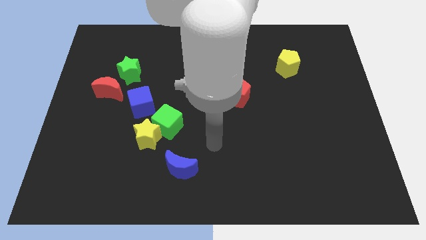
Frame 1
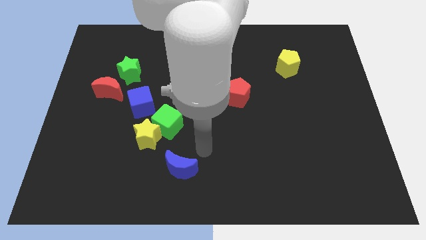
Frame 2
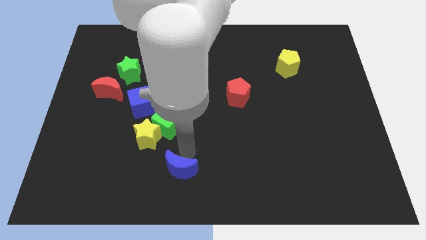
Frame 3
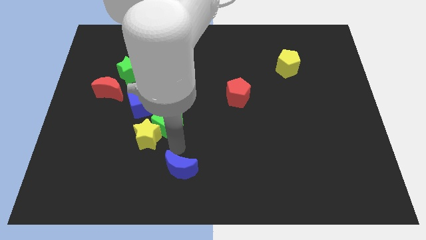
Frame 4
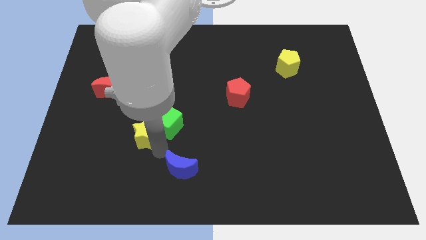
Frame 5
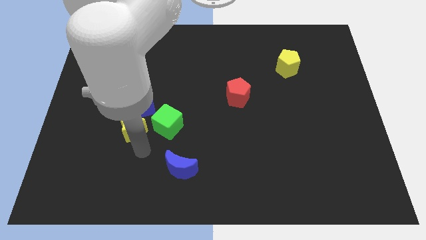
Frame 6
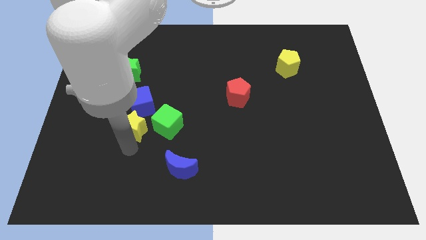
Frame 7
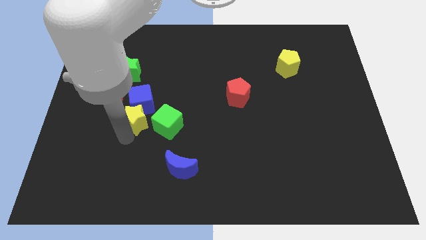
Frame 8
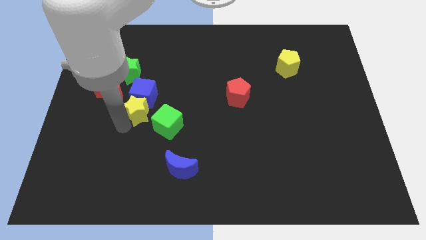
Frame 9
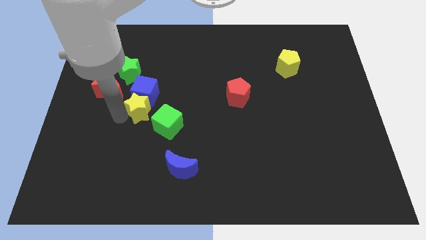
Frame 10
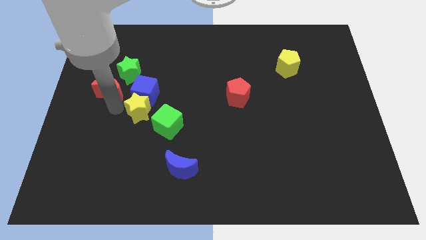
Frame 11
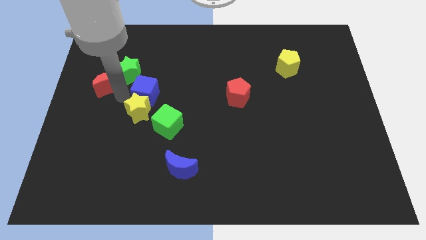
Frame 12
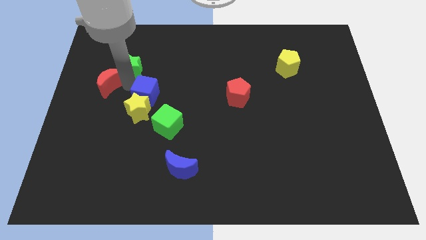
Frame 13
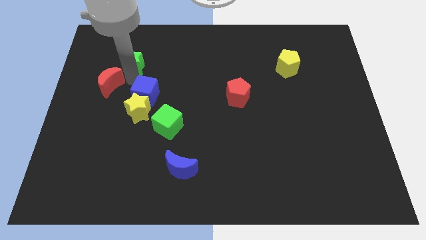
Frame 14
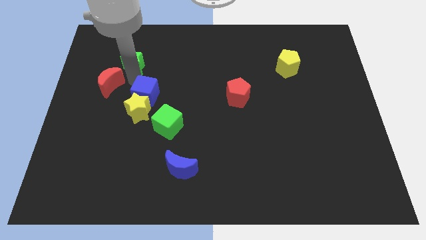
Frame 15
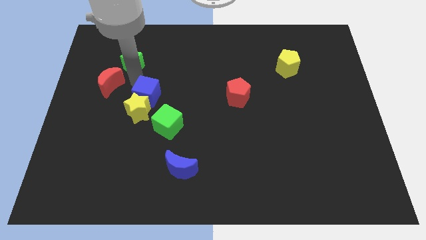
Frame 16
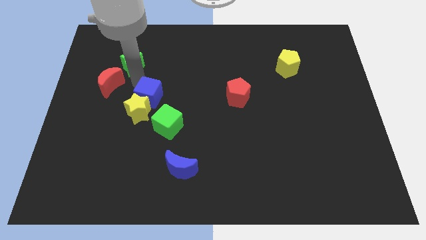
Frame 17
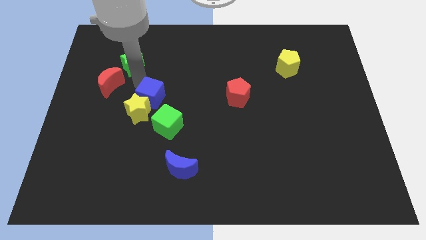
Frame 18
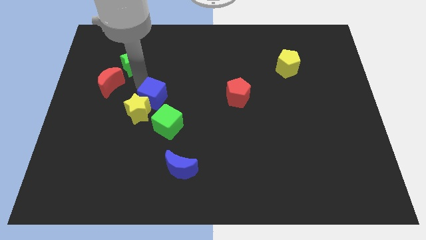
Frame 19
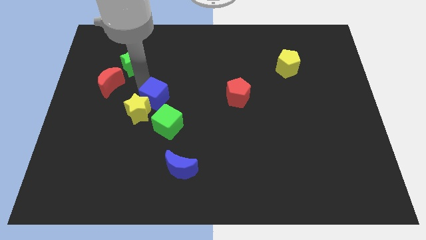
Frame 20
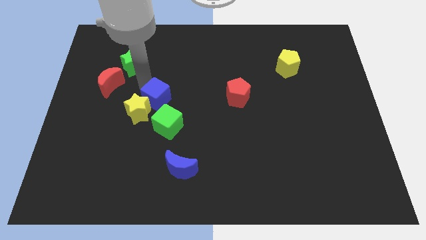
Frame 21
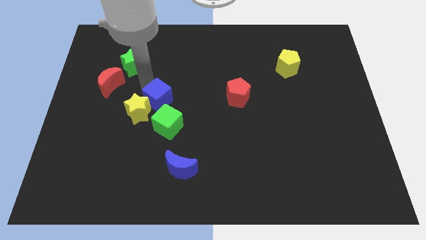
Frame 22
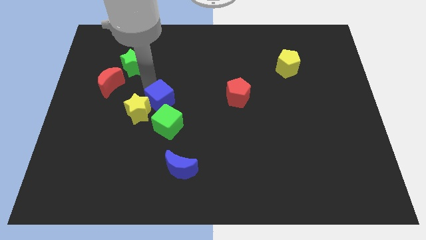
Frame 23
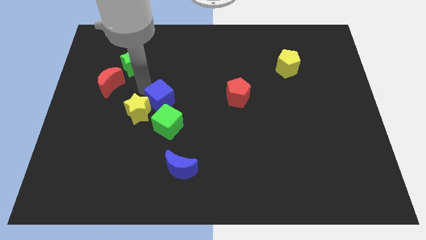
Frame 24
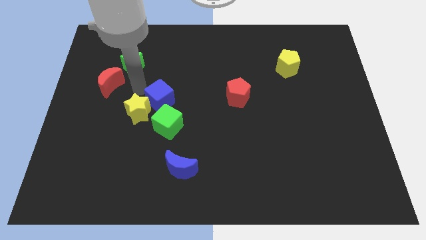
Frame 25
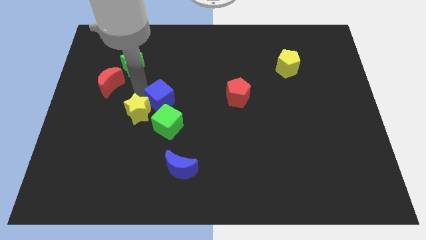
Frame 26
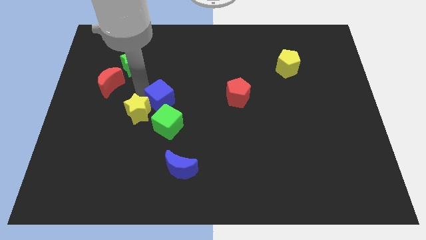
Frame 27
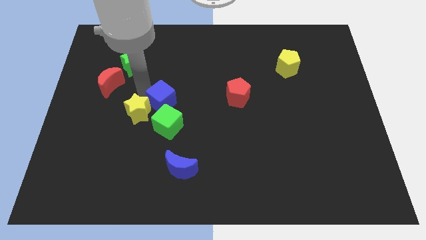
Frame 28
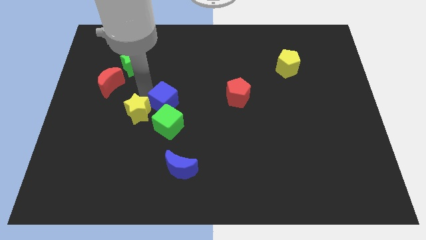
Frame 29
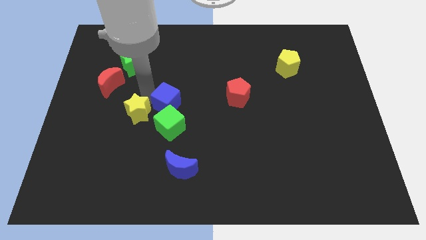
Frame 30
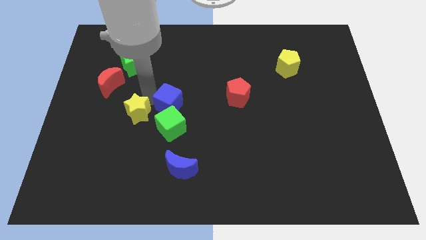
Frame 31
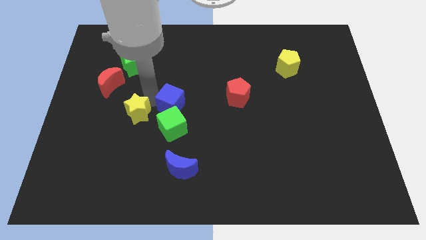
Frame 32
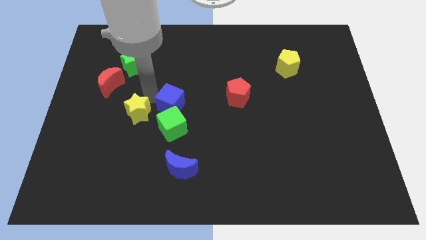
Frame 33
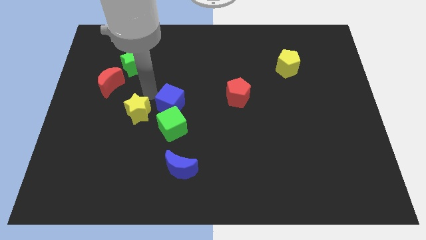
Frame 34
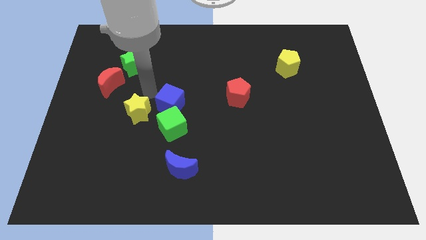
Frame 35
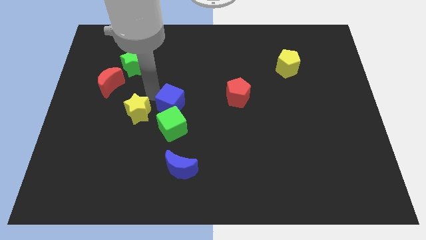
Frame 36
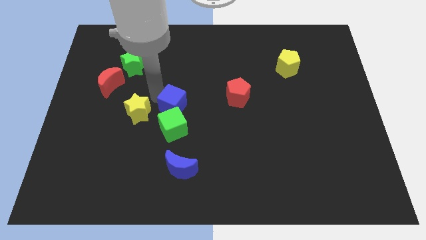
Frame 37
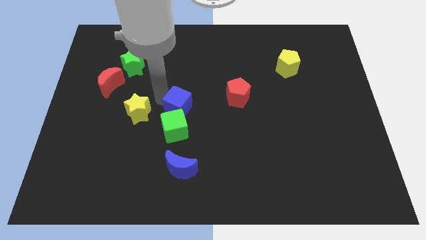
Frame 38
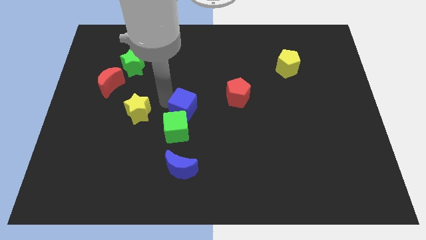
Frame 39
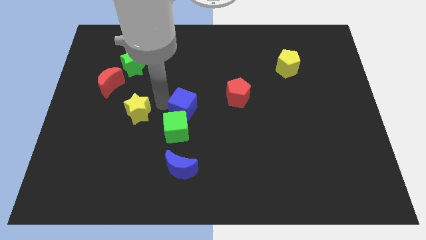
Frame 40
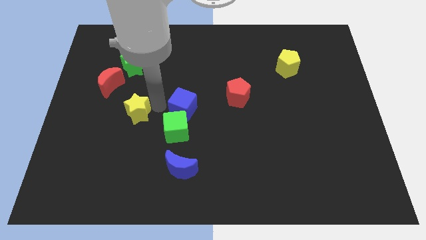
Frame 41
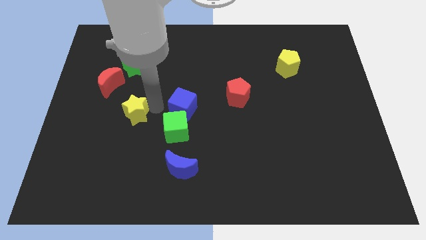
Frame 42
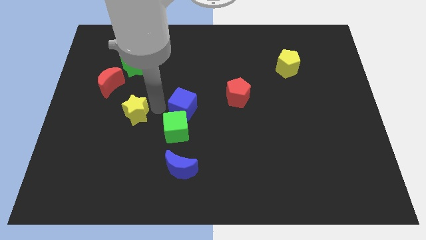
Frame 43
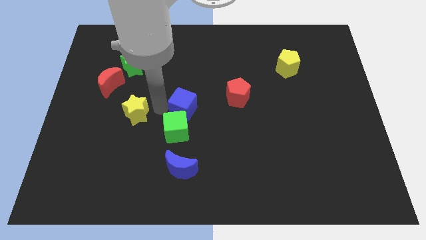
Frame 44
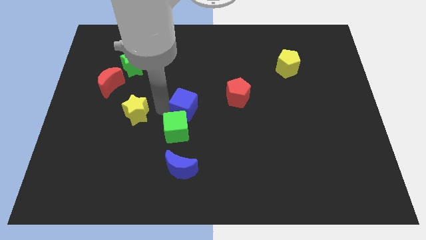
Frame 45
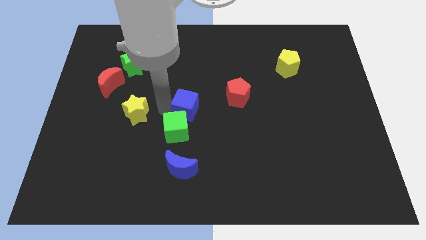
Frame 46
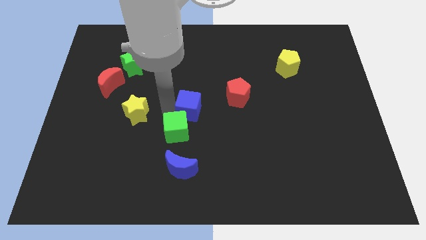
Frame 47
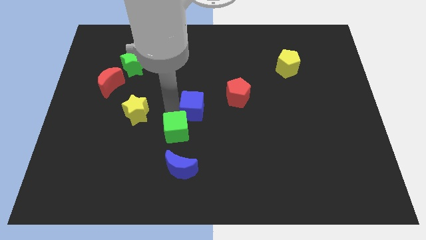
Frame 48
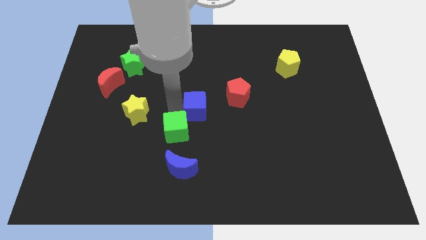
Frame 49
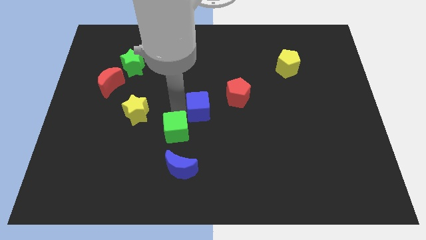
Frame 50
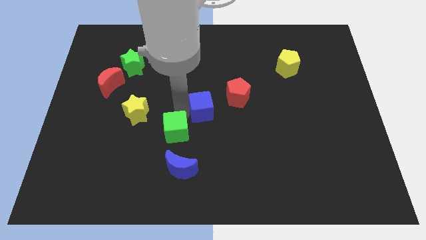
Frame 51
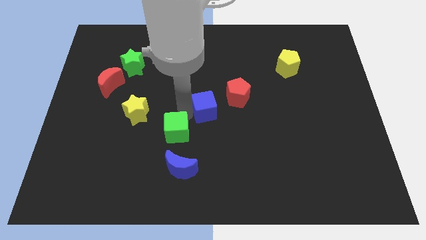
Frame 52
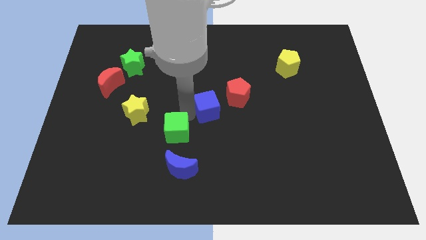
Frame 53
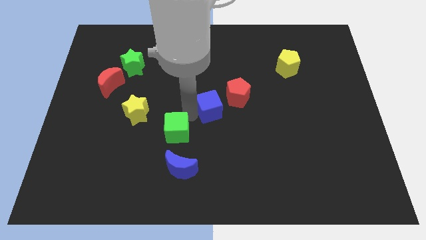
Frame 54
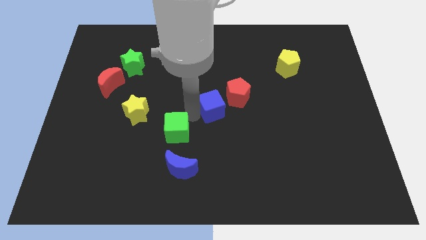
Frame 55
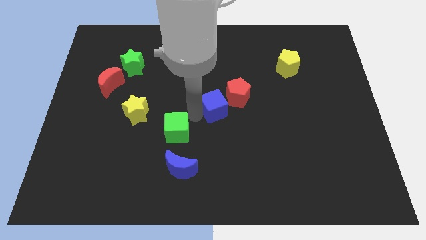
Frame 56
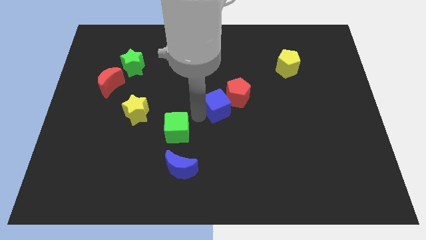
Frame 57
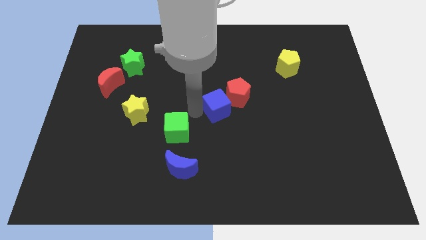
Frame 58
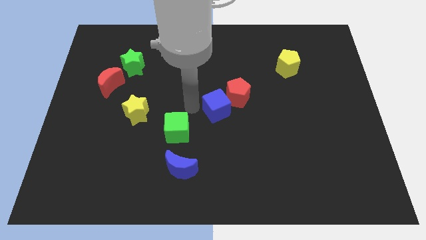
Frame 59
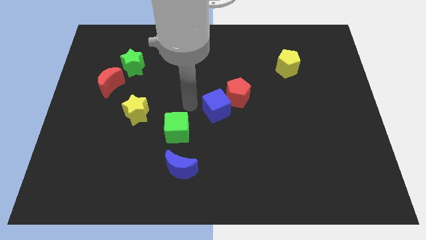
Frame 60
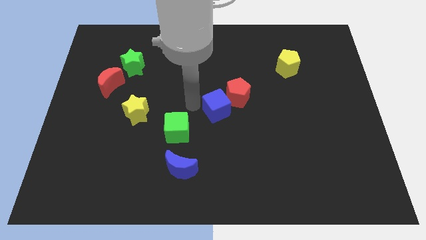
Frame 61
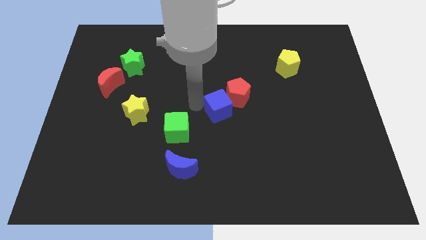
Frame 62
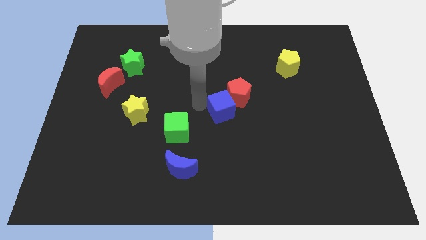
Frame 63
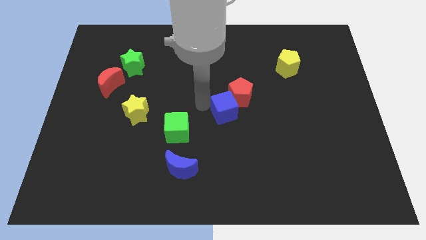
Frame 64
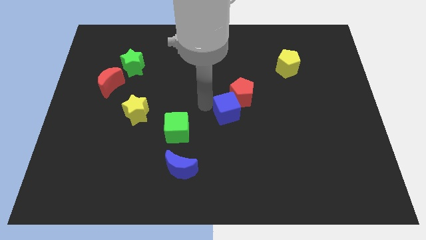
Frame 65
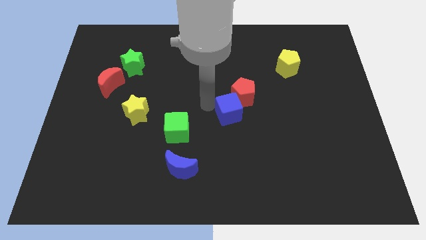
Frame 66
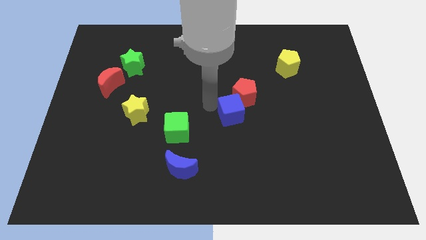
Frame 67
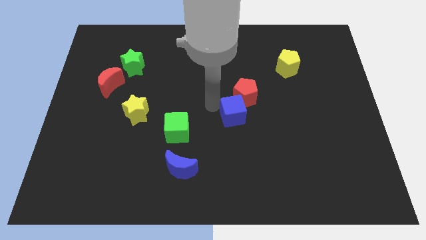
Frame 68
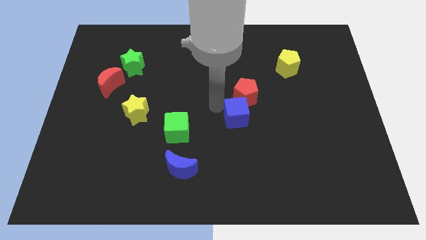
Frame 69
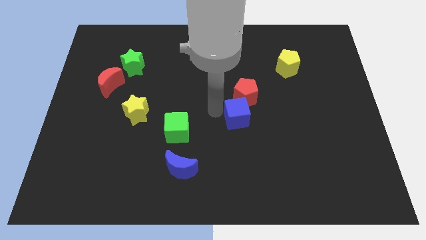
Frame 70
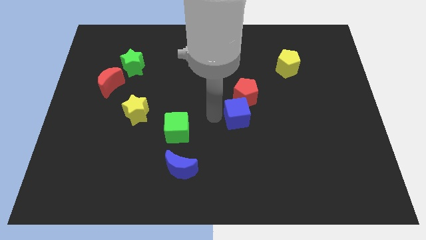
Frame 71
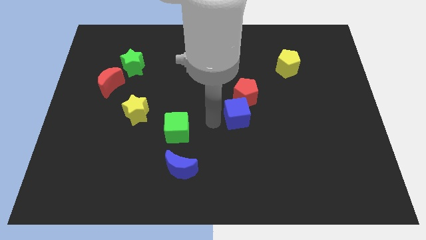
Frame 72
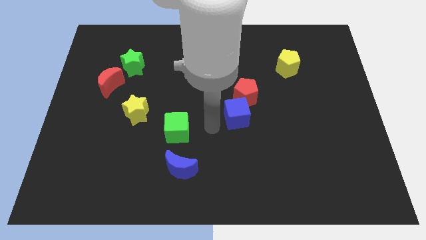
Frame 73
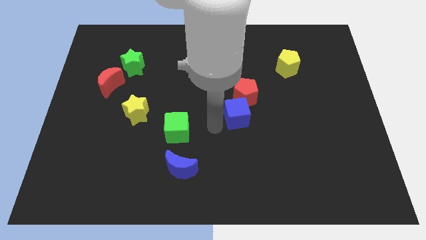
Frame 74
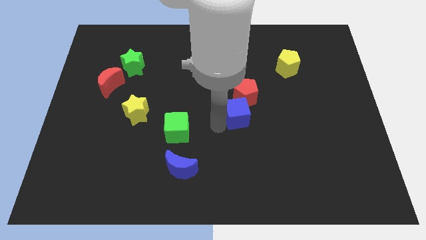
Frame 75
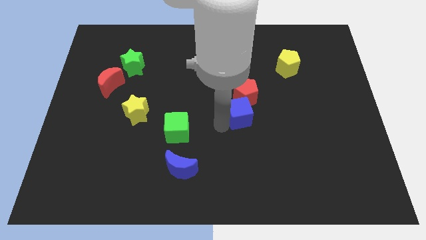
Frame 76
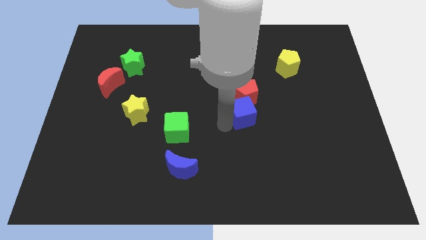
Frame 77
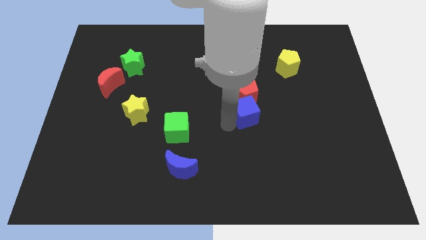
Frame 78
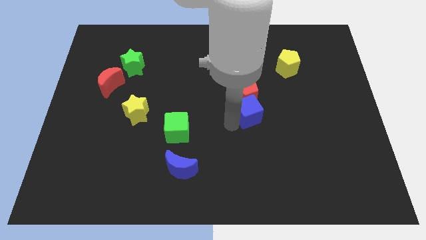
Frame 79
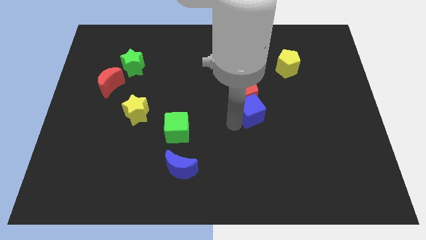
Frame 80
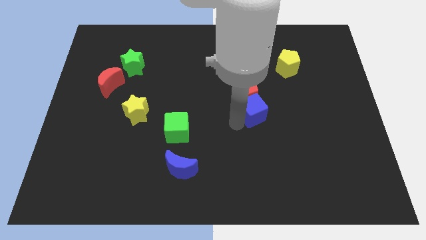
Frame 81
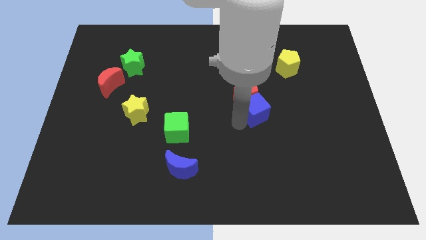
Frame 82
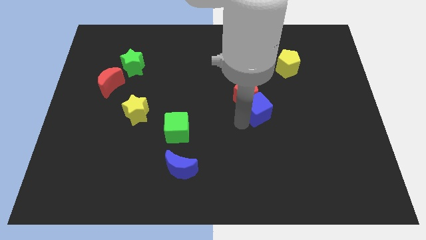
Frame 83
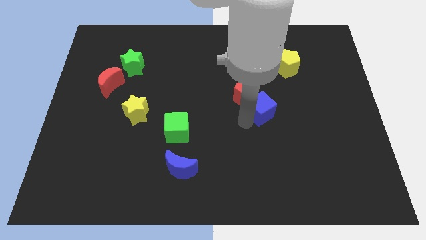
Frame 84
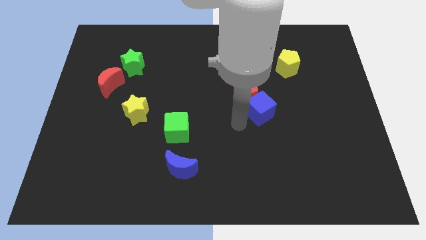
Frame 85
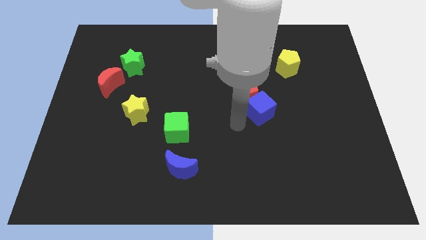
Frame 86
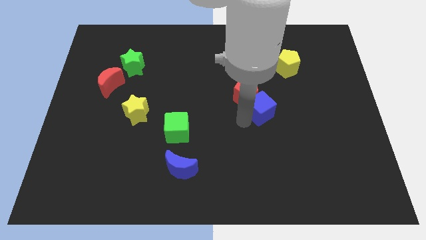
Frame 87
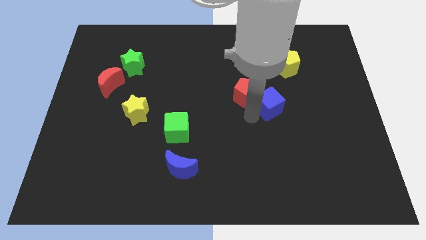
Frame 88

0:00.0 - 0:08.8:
move the blue cube right of the red pentagon
